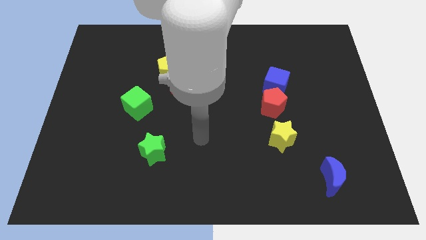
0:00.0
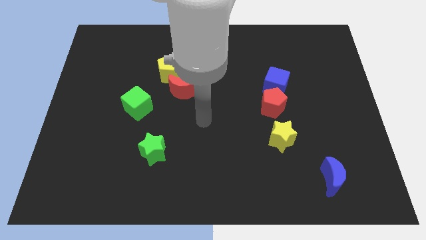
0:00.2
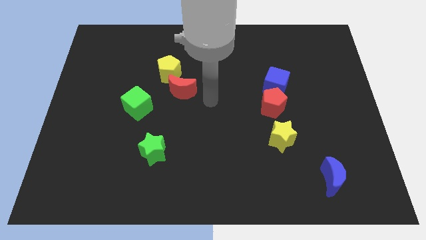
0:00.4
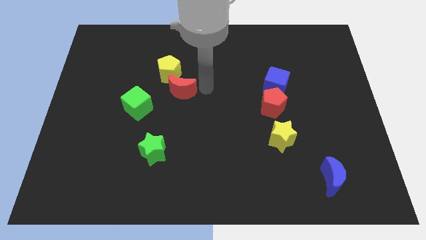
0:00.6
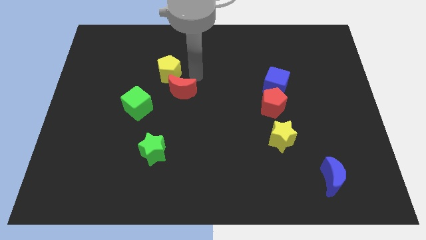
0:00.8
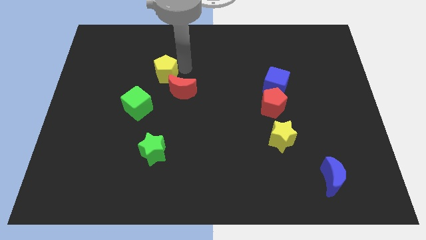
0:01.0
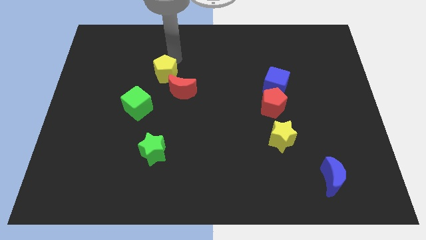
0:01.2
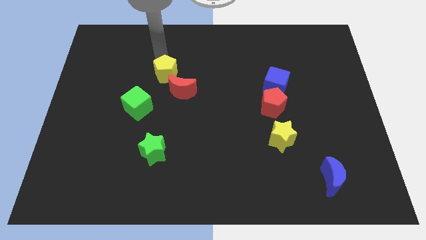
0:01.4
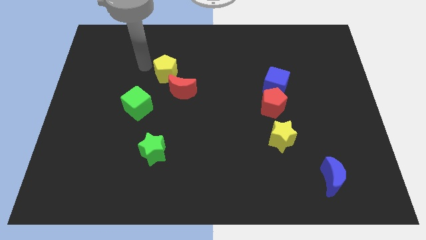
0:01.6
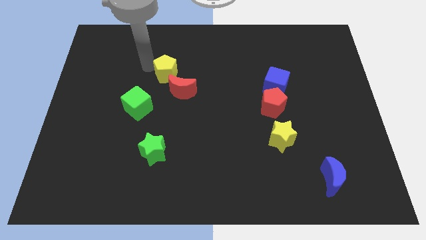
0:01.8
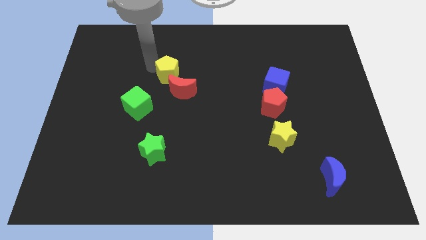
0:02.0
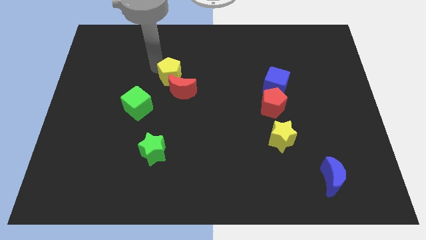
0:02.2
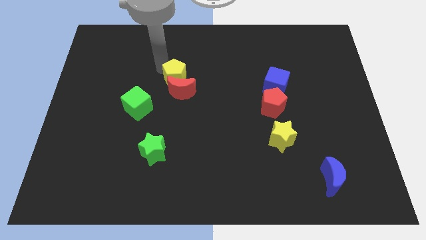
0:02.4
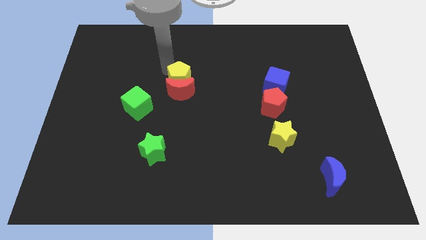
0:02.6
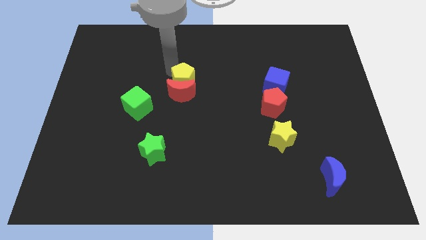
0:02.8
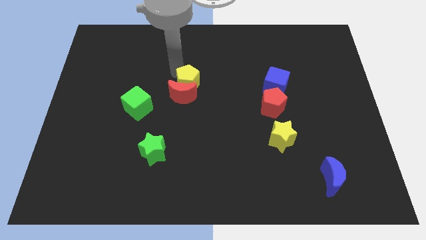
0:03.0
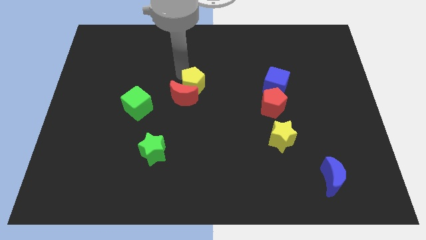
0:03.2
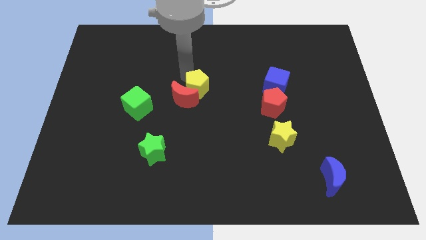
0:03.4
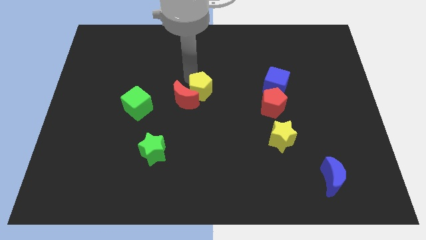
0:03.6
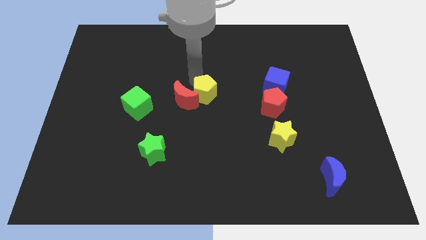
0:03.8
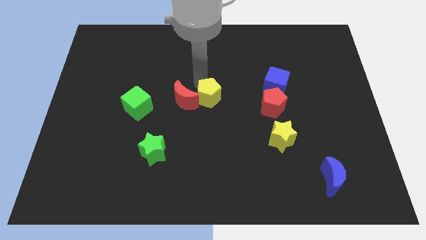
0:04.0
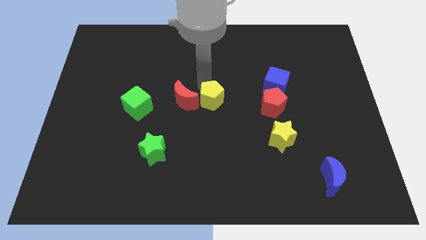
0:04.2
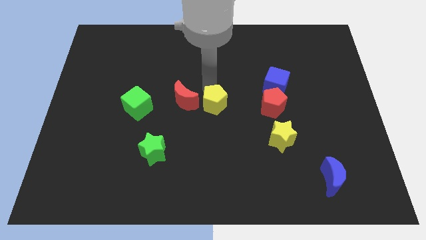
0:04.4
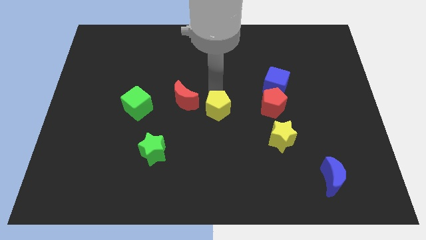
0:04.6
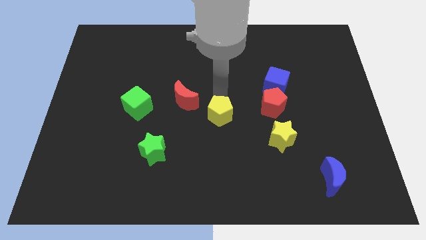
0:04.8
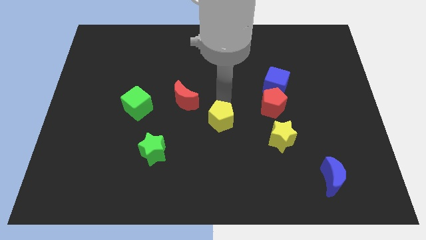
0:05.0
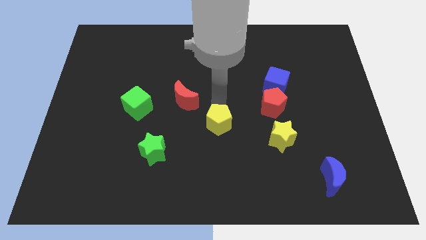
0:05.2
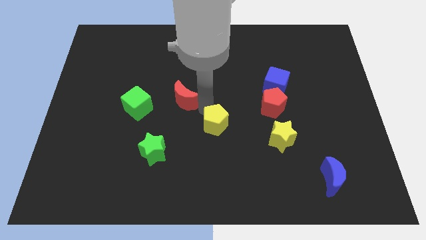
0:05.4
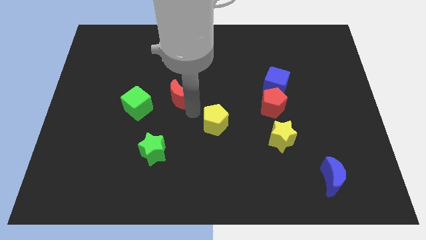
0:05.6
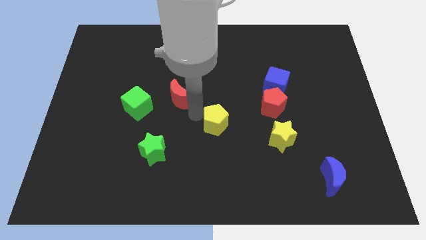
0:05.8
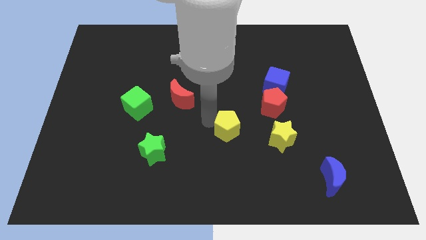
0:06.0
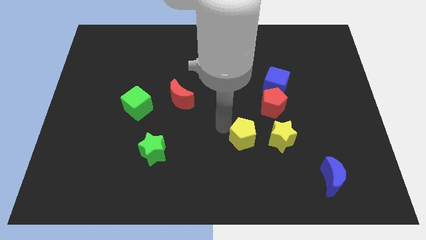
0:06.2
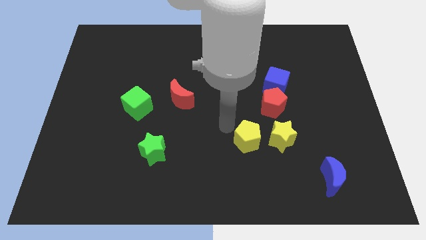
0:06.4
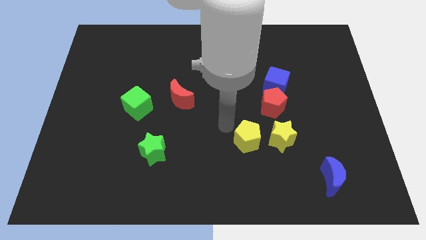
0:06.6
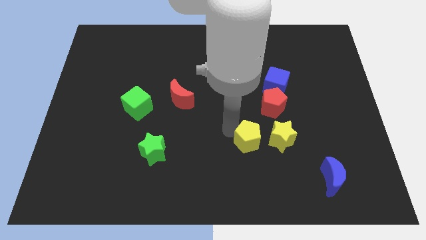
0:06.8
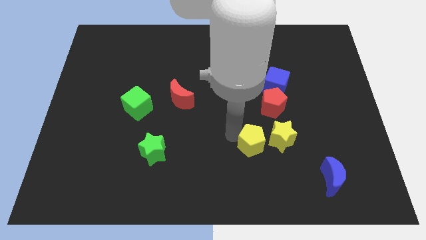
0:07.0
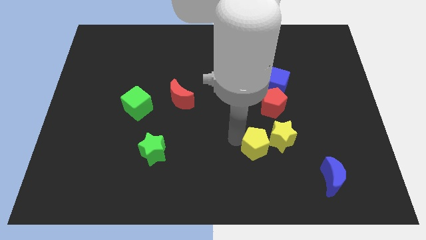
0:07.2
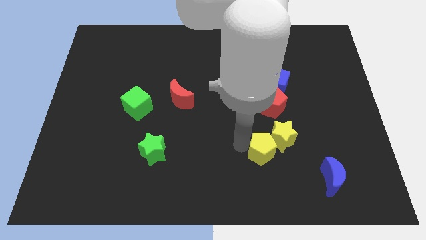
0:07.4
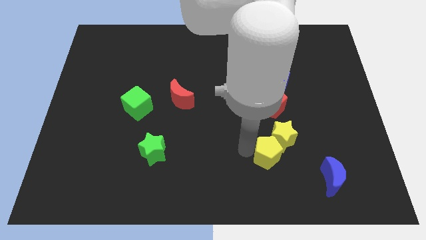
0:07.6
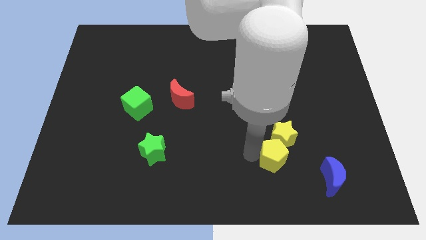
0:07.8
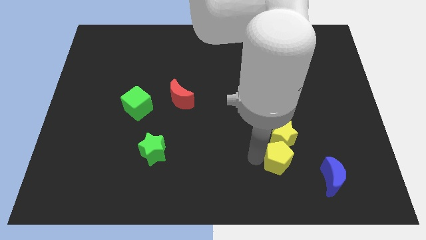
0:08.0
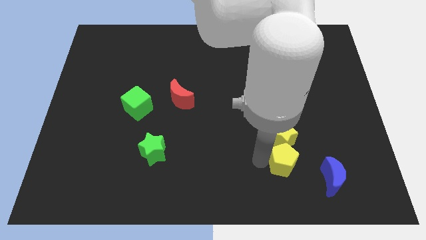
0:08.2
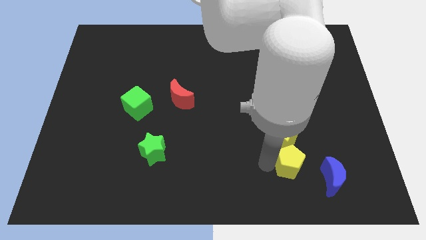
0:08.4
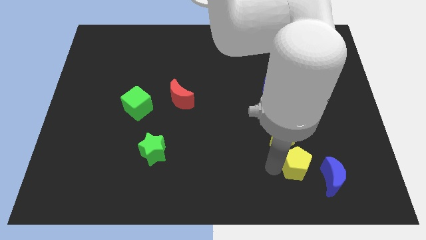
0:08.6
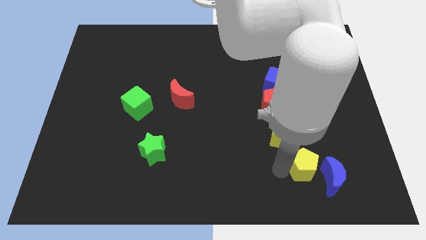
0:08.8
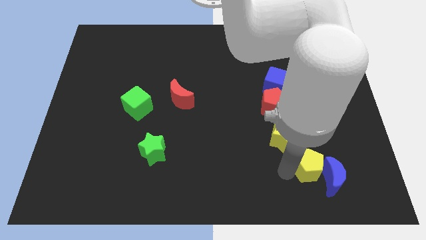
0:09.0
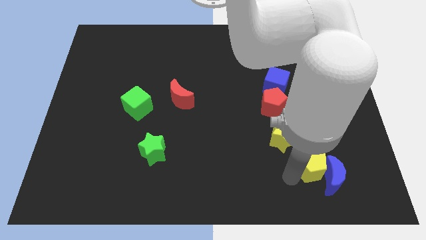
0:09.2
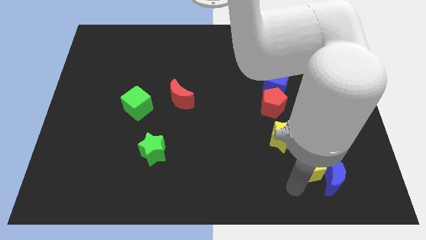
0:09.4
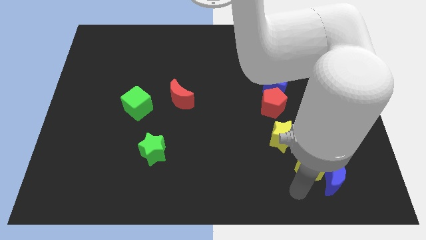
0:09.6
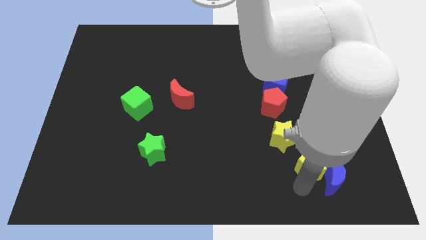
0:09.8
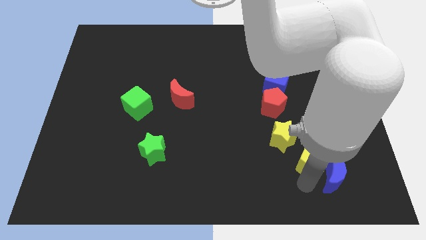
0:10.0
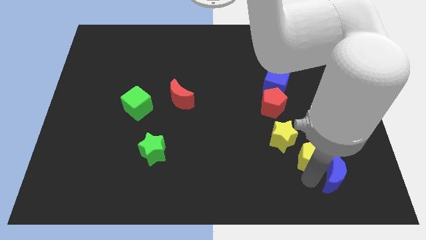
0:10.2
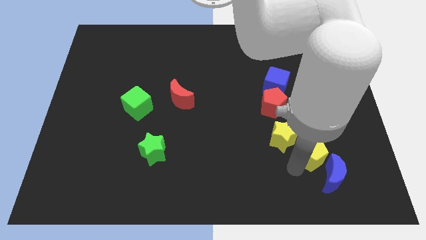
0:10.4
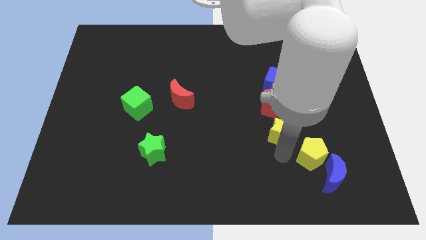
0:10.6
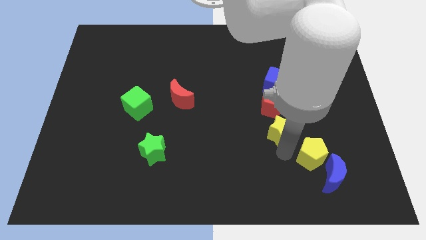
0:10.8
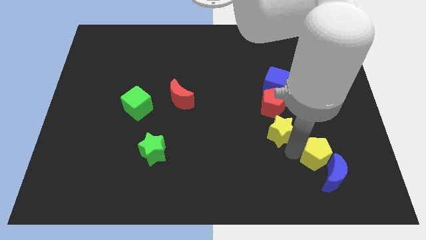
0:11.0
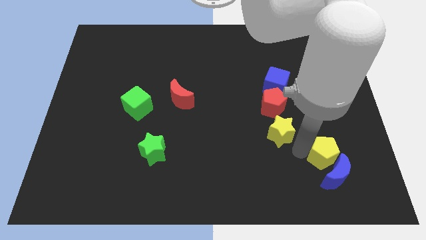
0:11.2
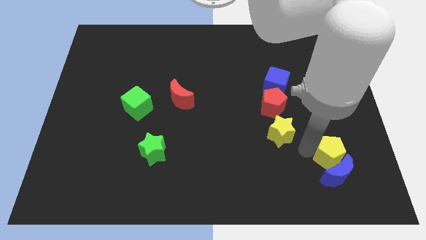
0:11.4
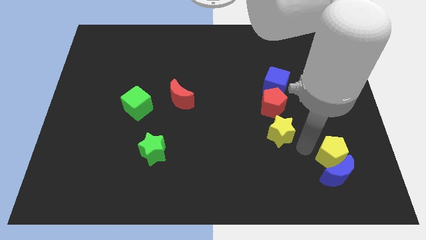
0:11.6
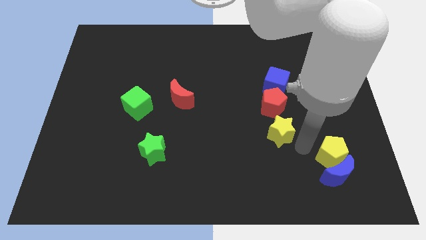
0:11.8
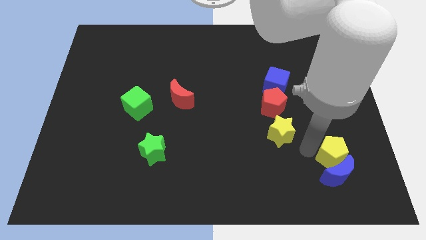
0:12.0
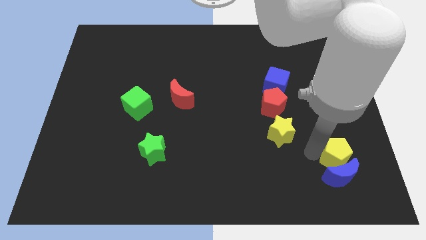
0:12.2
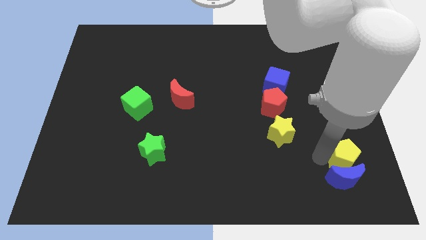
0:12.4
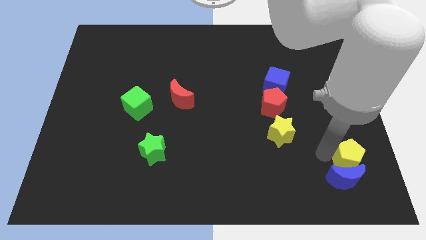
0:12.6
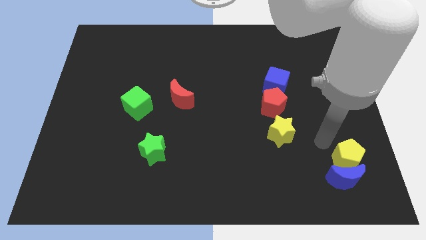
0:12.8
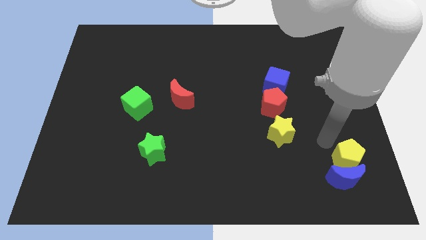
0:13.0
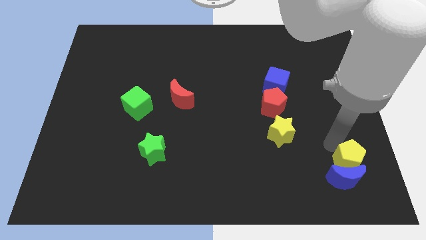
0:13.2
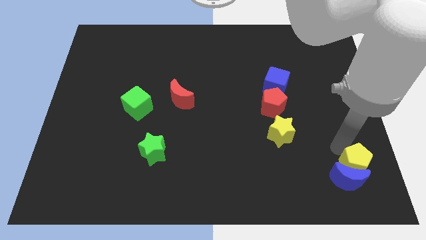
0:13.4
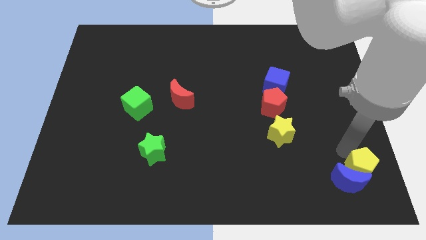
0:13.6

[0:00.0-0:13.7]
slide the yellow pentagon to the bottom right corner
